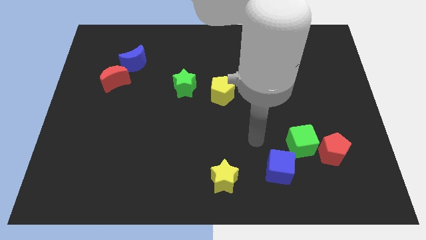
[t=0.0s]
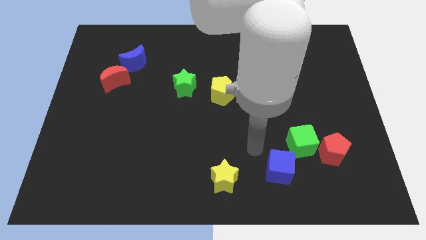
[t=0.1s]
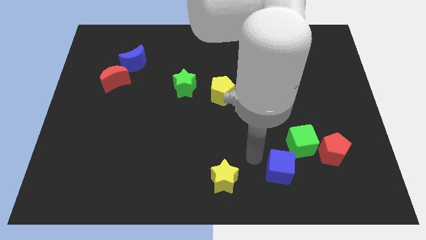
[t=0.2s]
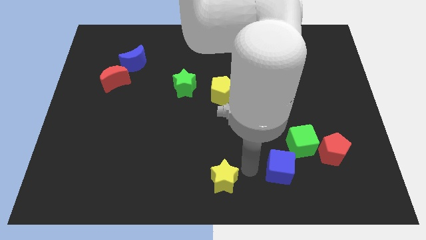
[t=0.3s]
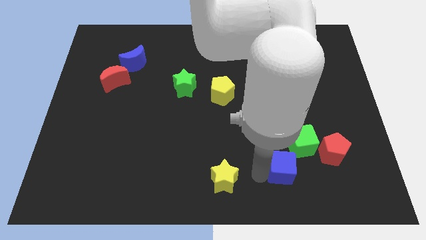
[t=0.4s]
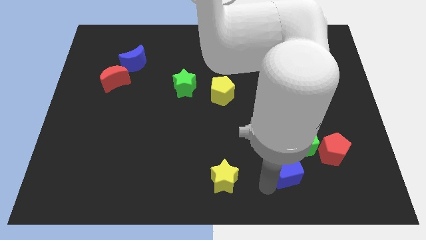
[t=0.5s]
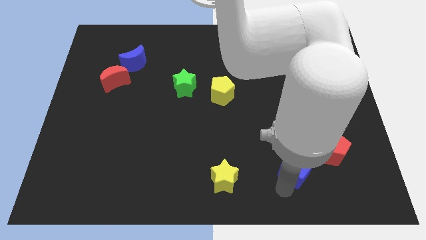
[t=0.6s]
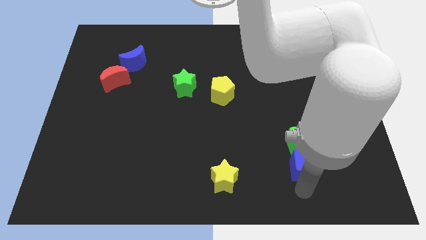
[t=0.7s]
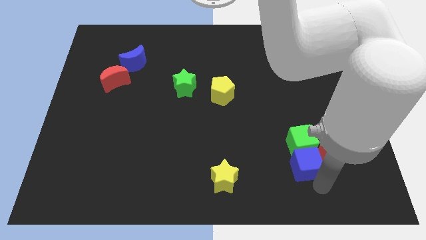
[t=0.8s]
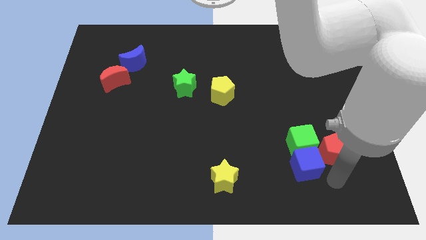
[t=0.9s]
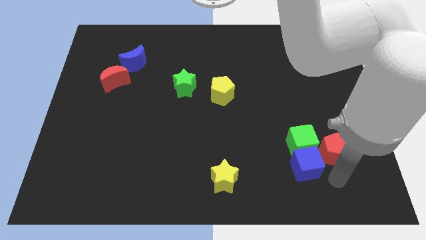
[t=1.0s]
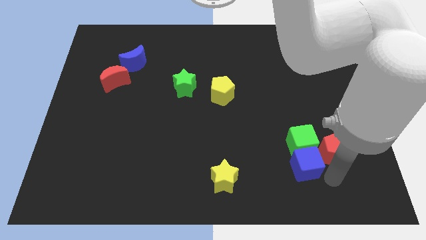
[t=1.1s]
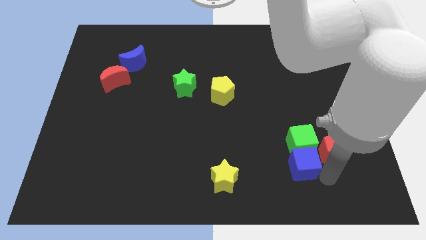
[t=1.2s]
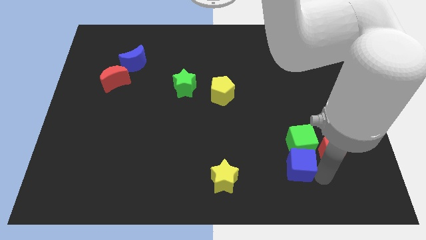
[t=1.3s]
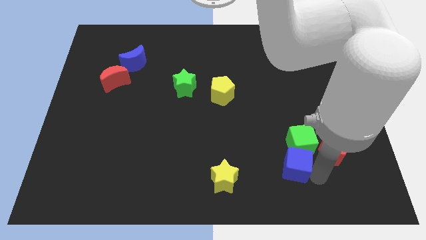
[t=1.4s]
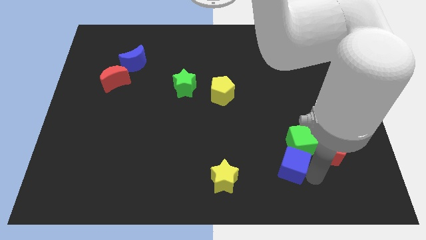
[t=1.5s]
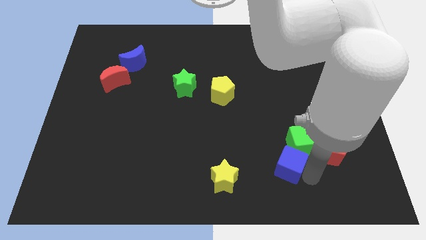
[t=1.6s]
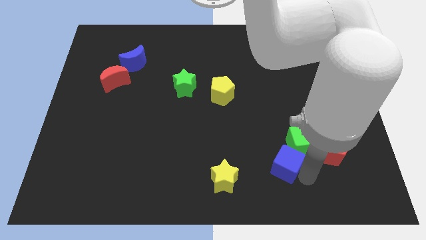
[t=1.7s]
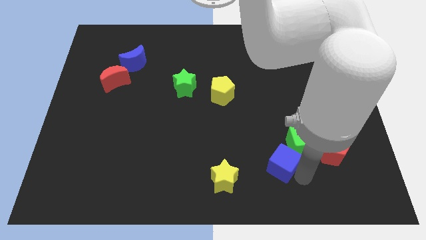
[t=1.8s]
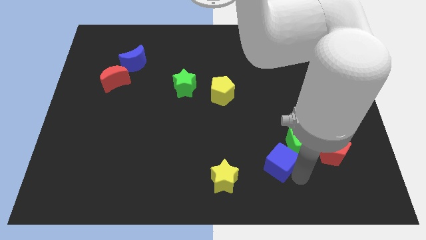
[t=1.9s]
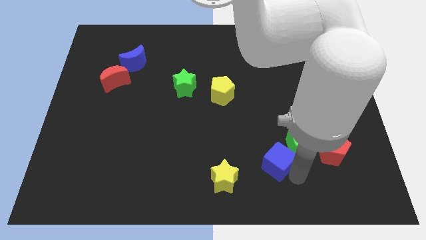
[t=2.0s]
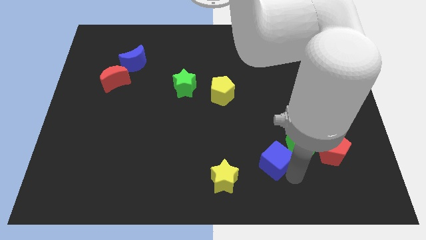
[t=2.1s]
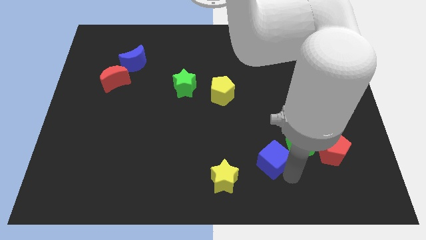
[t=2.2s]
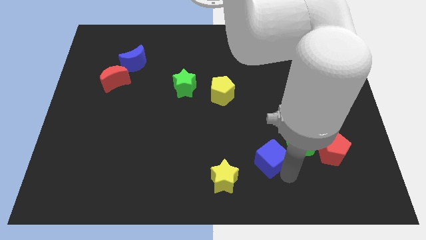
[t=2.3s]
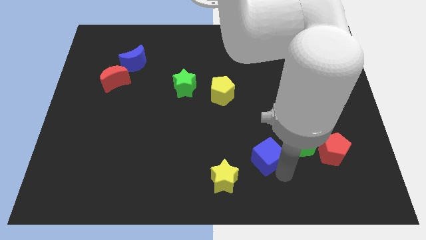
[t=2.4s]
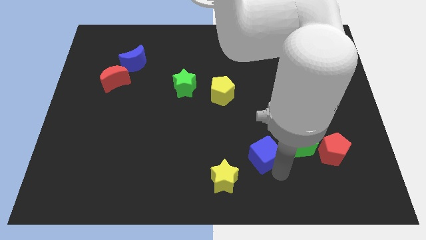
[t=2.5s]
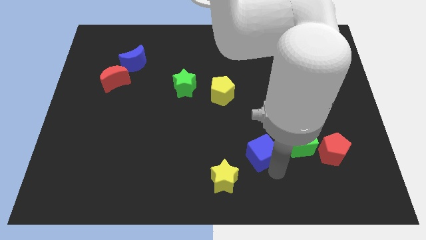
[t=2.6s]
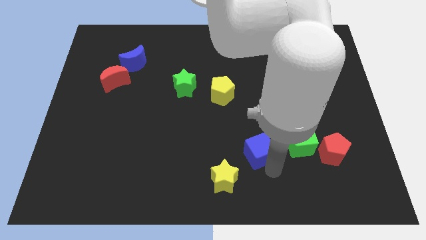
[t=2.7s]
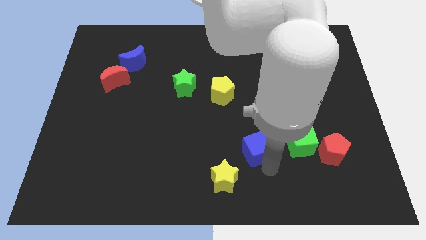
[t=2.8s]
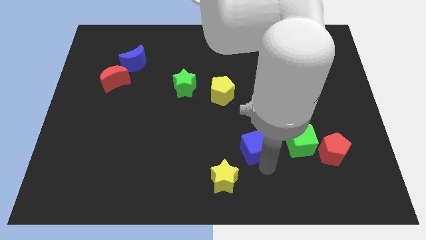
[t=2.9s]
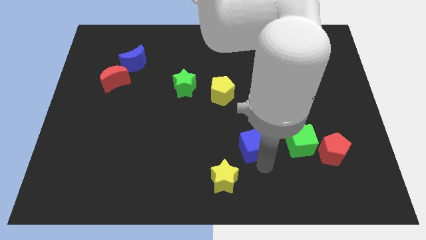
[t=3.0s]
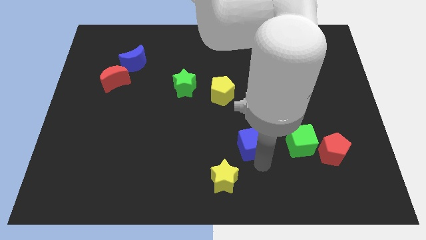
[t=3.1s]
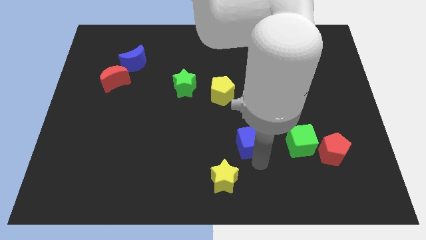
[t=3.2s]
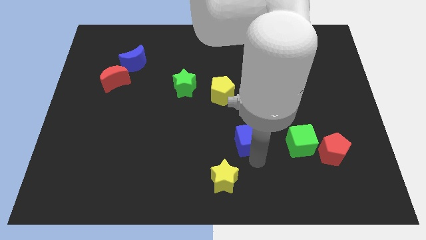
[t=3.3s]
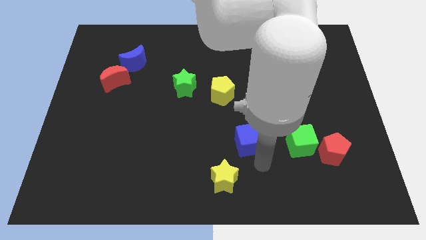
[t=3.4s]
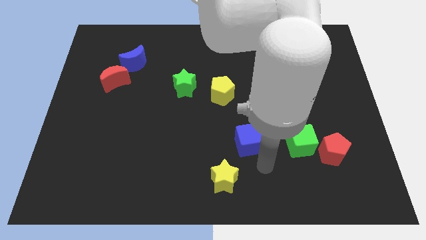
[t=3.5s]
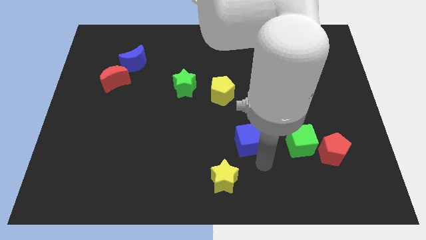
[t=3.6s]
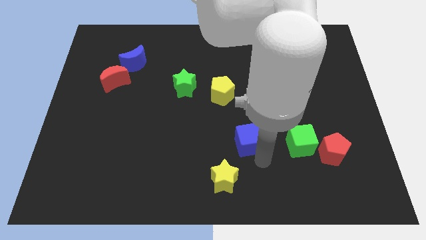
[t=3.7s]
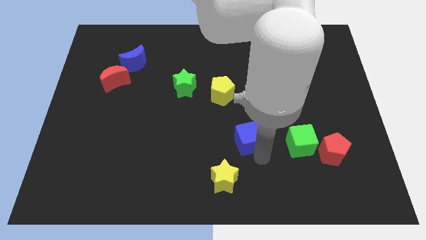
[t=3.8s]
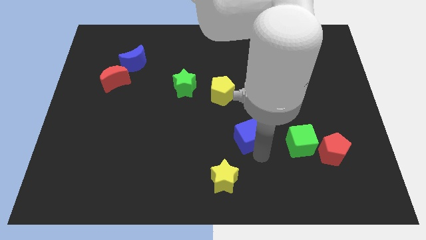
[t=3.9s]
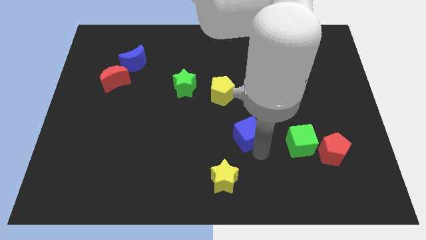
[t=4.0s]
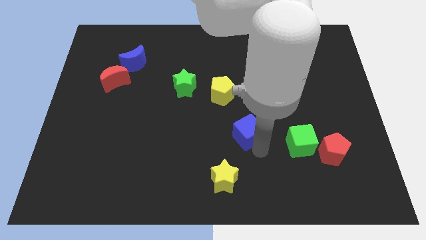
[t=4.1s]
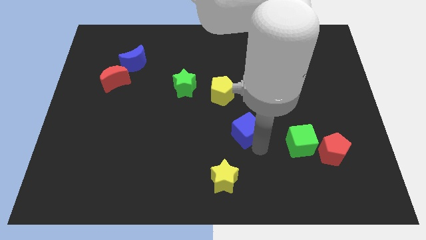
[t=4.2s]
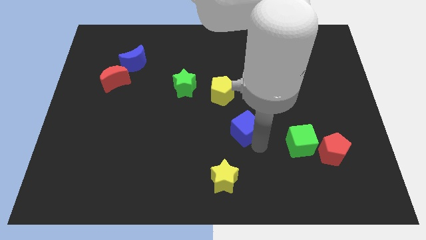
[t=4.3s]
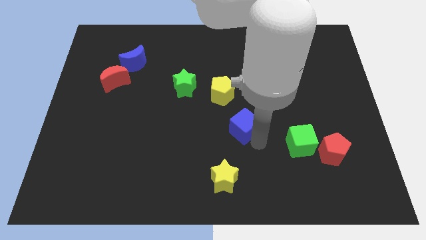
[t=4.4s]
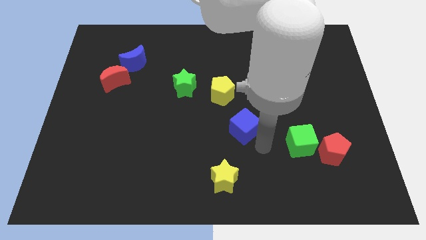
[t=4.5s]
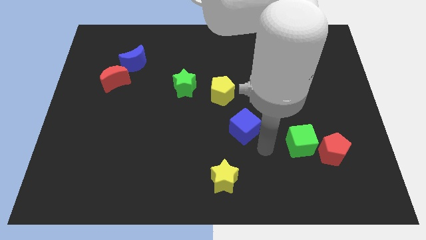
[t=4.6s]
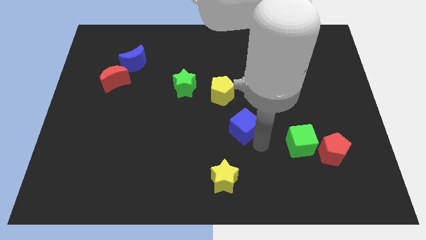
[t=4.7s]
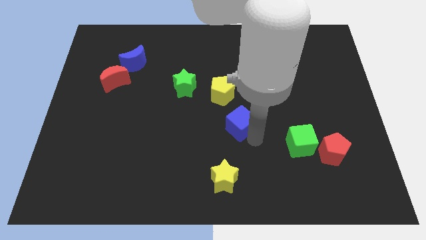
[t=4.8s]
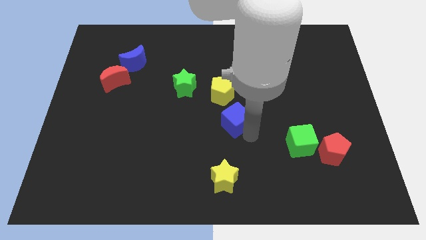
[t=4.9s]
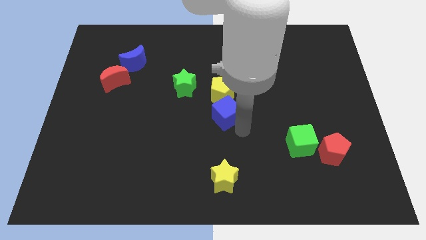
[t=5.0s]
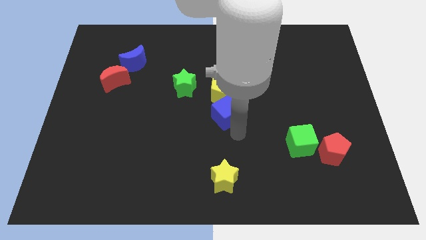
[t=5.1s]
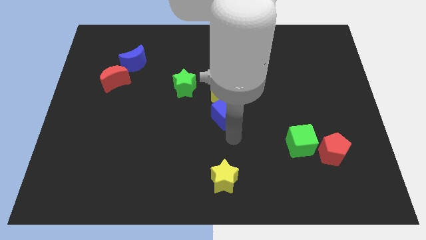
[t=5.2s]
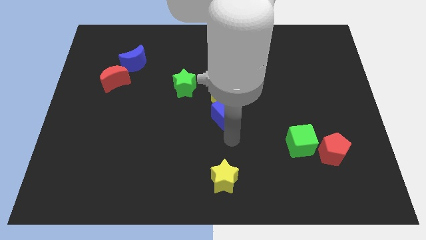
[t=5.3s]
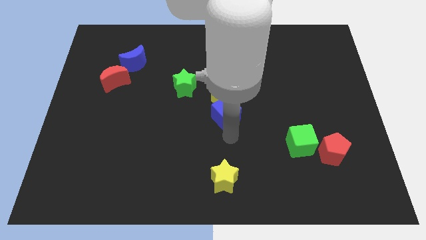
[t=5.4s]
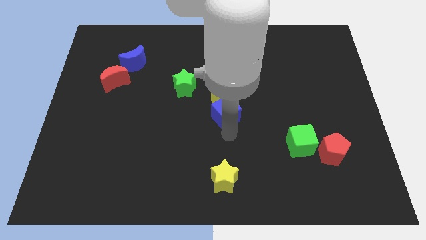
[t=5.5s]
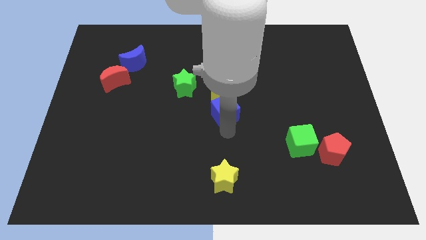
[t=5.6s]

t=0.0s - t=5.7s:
put the blue cube close to the yellow pentagon

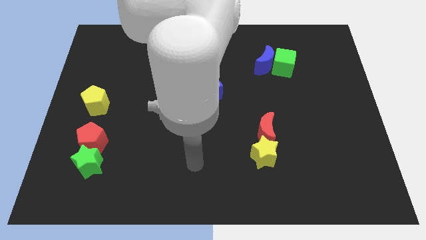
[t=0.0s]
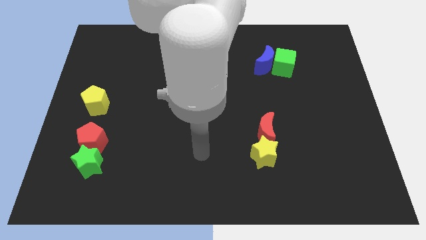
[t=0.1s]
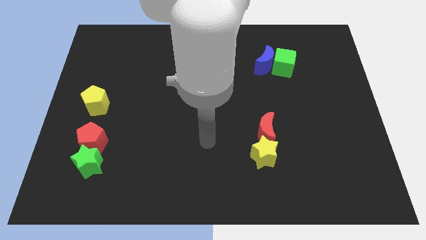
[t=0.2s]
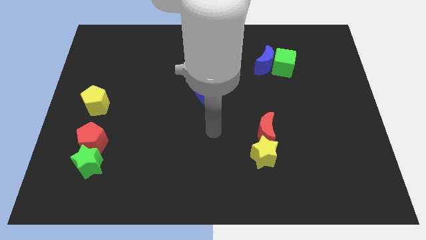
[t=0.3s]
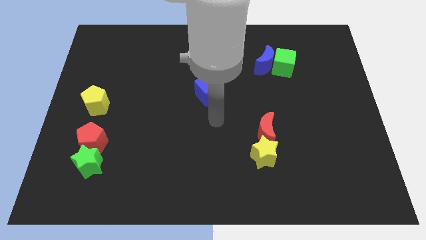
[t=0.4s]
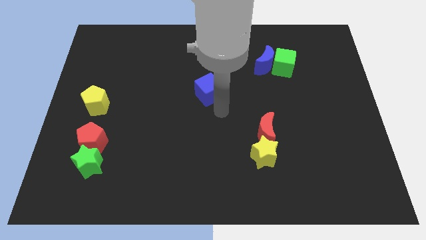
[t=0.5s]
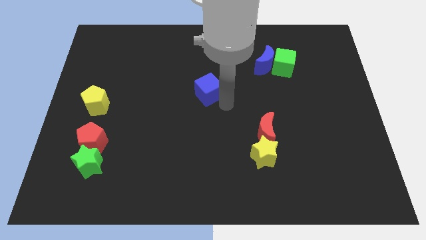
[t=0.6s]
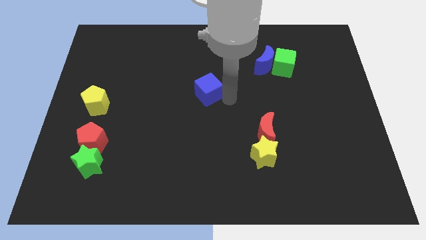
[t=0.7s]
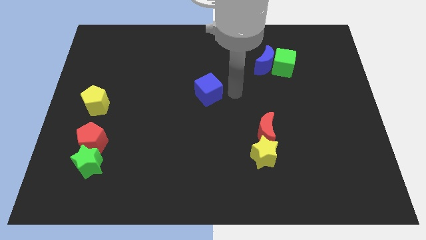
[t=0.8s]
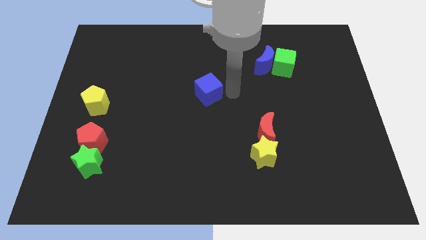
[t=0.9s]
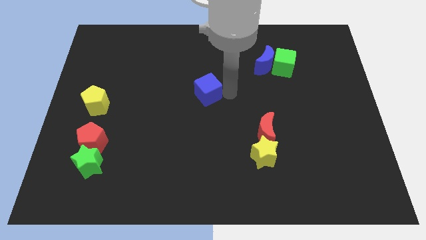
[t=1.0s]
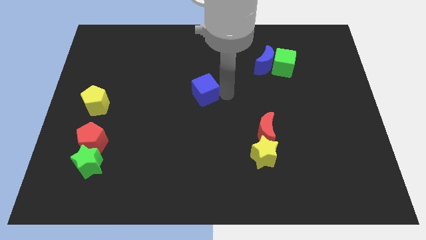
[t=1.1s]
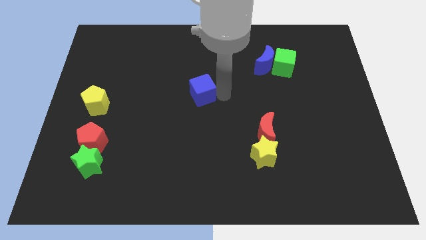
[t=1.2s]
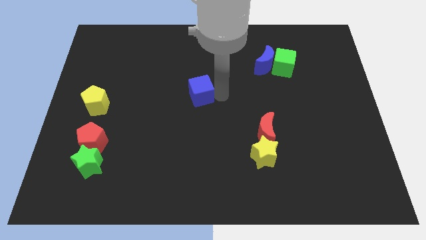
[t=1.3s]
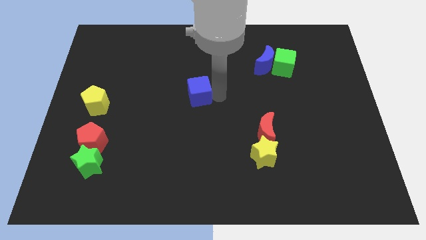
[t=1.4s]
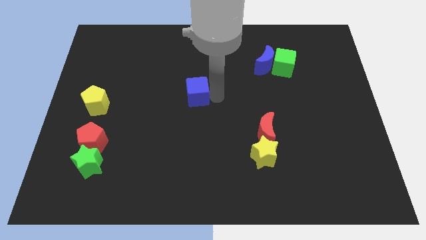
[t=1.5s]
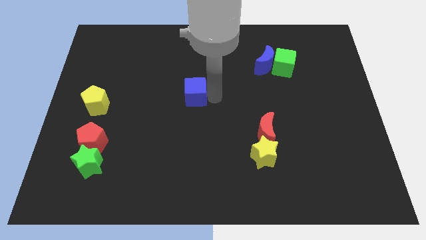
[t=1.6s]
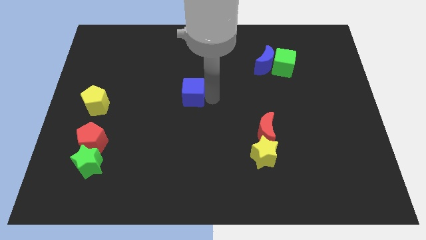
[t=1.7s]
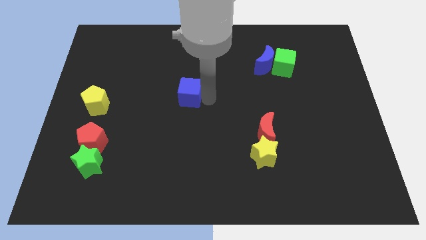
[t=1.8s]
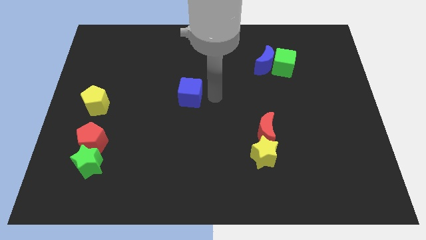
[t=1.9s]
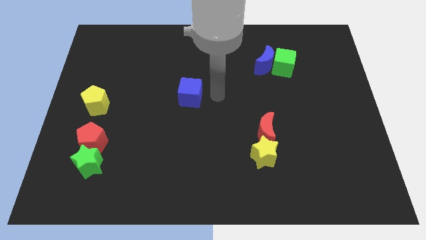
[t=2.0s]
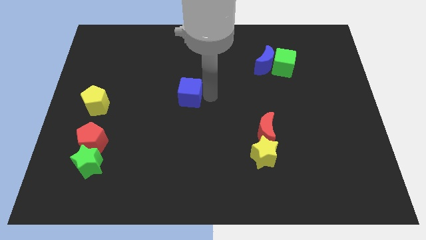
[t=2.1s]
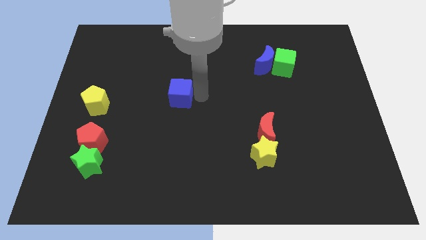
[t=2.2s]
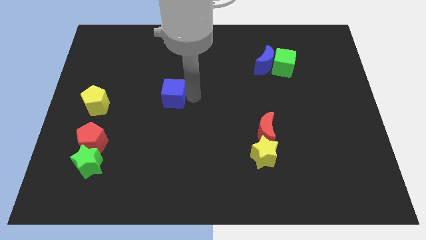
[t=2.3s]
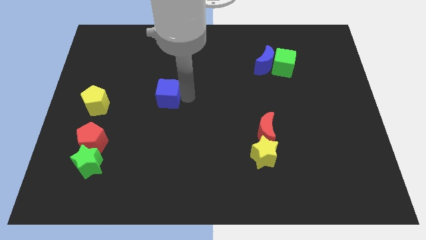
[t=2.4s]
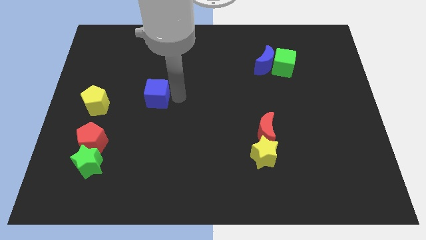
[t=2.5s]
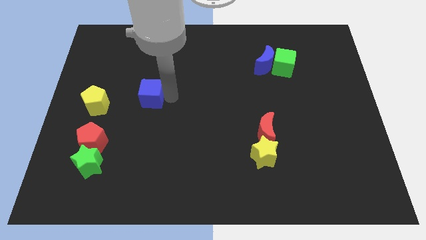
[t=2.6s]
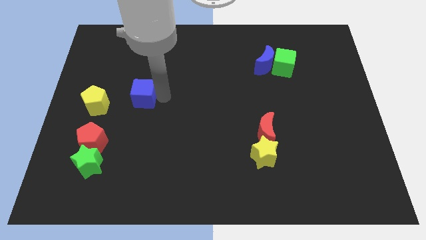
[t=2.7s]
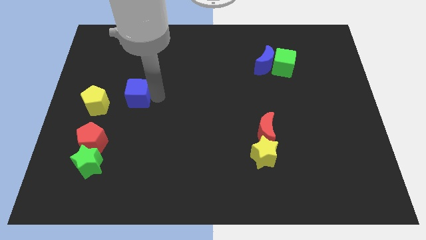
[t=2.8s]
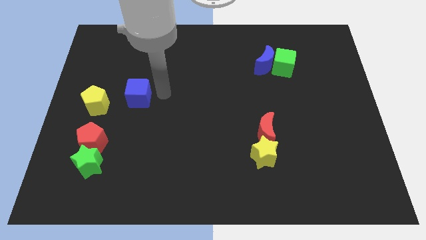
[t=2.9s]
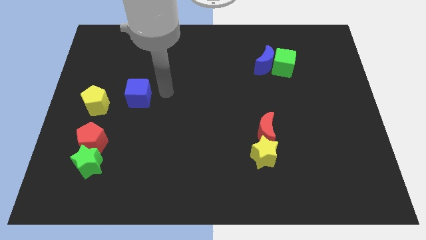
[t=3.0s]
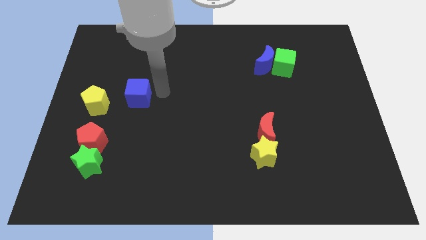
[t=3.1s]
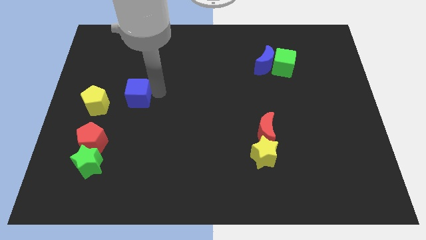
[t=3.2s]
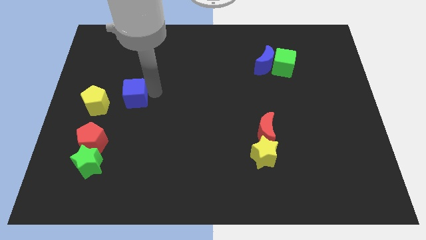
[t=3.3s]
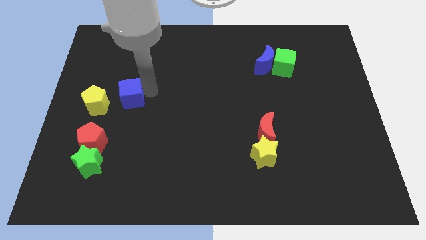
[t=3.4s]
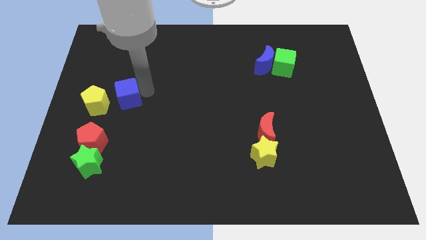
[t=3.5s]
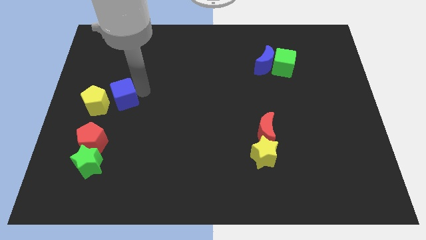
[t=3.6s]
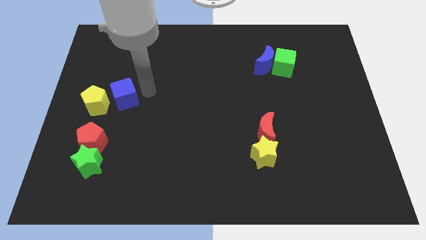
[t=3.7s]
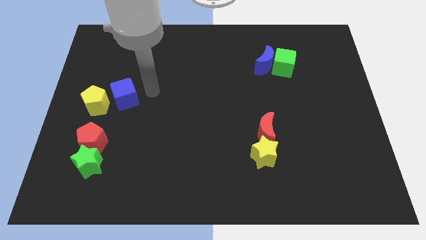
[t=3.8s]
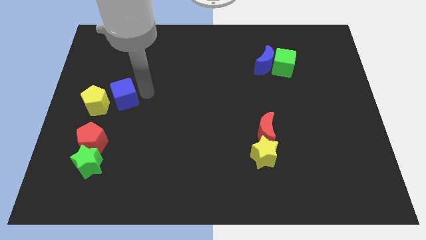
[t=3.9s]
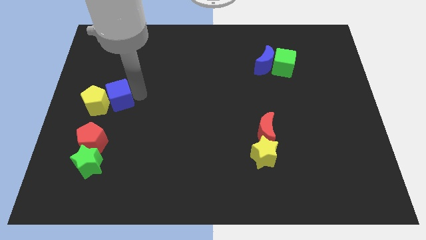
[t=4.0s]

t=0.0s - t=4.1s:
slide the blue cube next to the yellow pentagon
